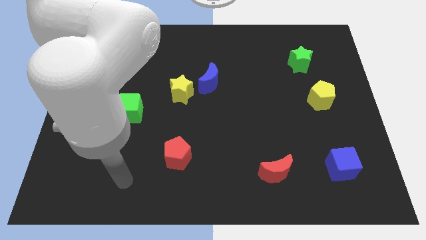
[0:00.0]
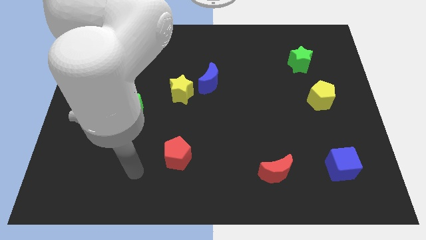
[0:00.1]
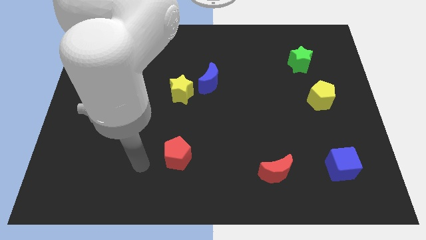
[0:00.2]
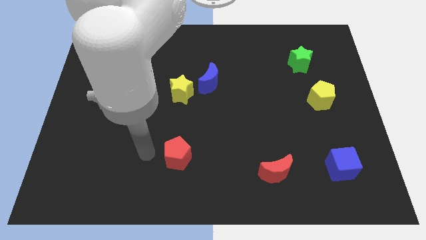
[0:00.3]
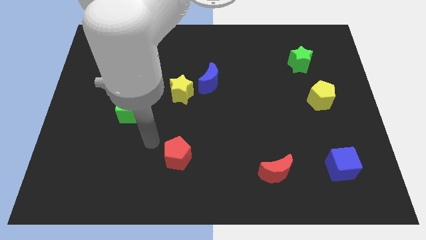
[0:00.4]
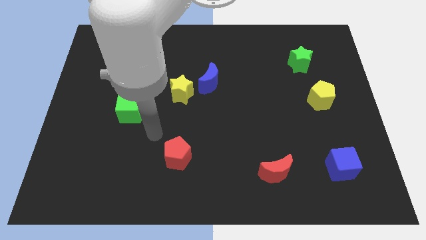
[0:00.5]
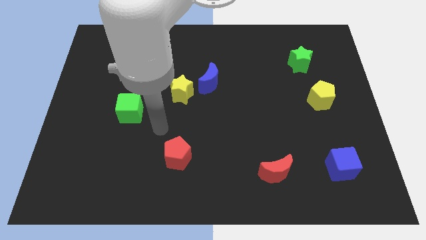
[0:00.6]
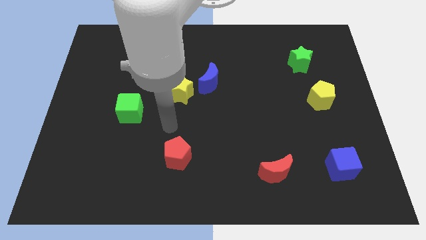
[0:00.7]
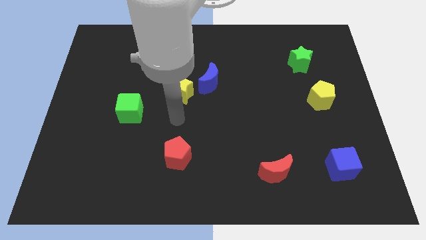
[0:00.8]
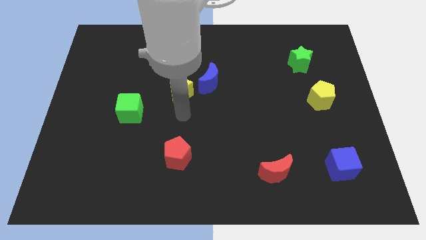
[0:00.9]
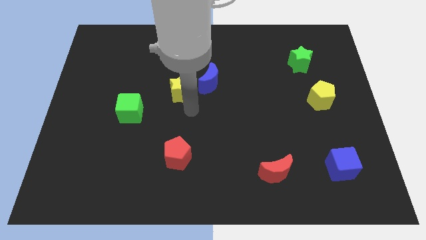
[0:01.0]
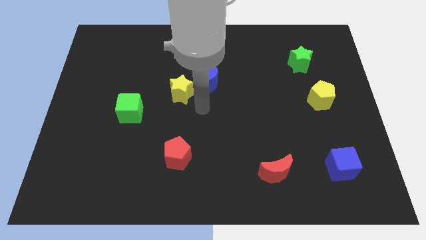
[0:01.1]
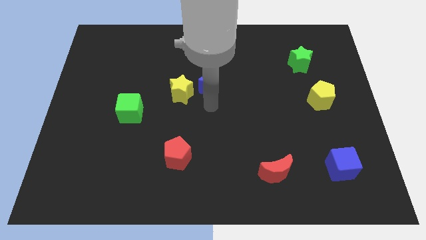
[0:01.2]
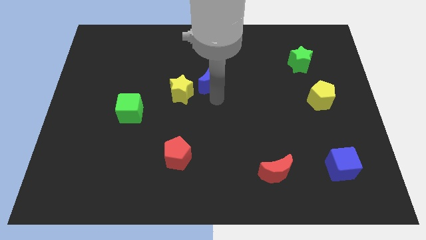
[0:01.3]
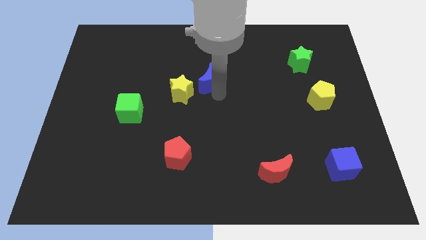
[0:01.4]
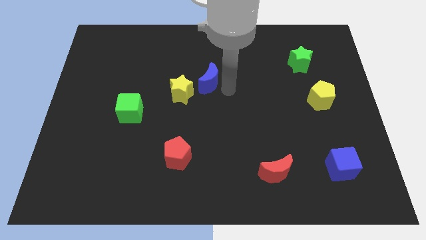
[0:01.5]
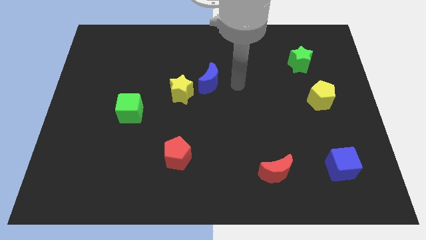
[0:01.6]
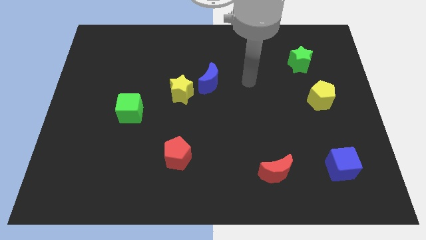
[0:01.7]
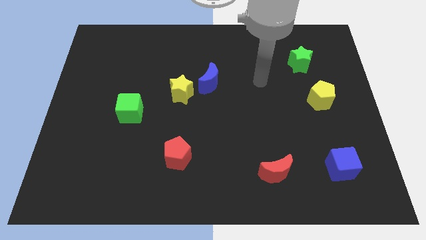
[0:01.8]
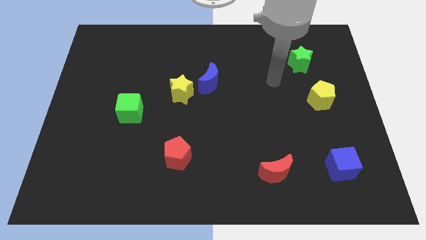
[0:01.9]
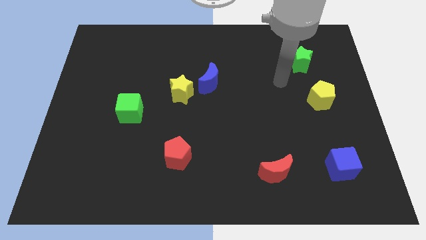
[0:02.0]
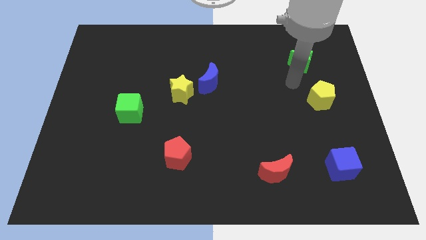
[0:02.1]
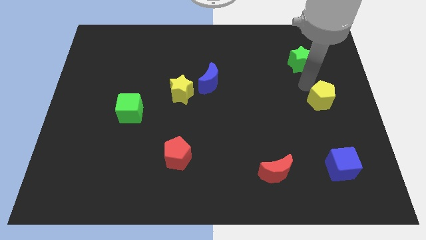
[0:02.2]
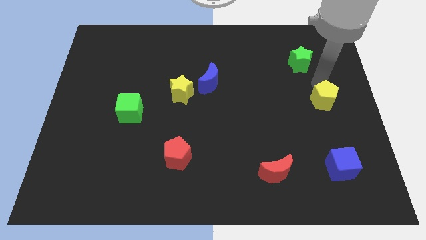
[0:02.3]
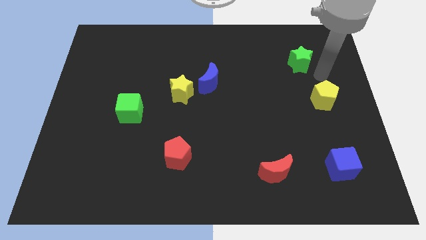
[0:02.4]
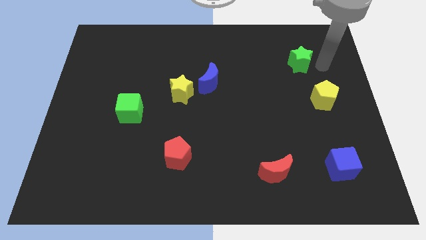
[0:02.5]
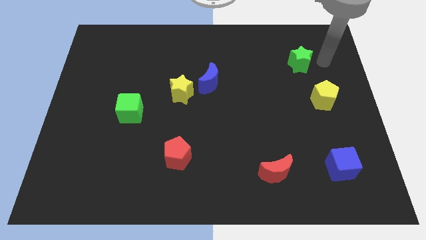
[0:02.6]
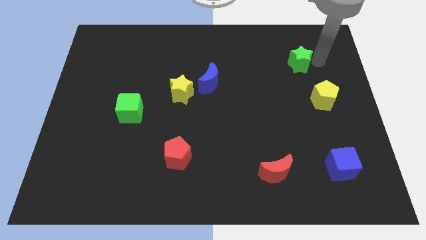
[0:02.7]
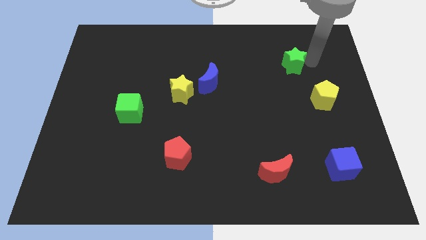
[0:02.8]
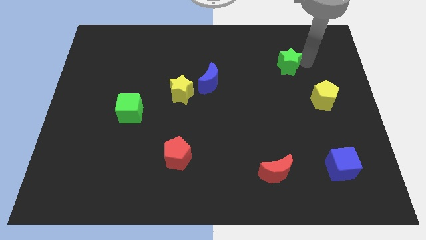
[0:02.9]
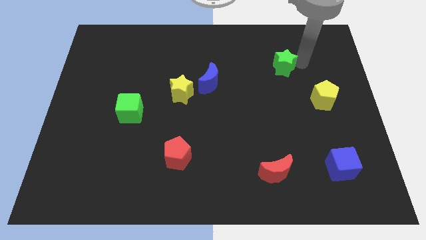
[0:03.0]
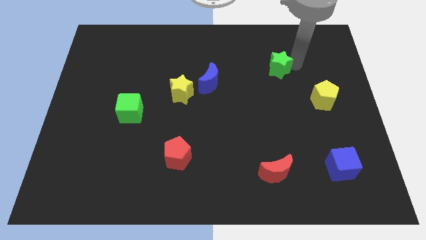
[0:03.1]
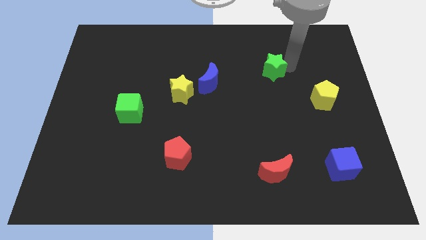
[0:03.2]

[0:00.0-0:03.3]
move the green star slightly left

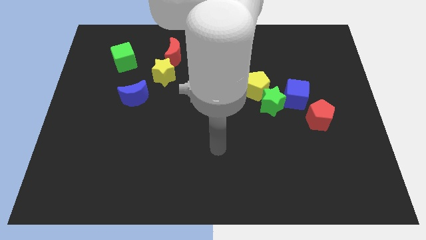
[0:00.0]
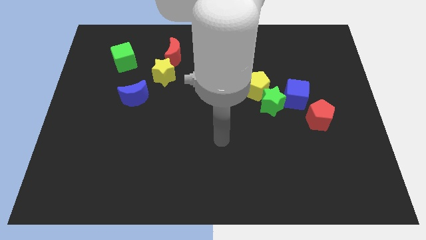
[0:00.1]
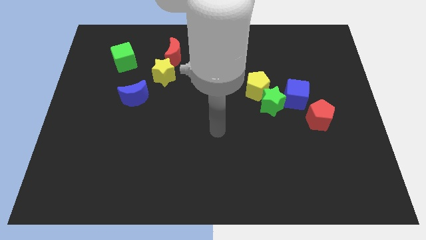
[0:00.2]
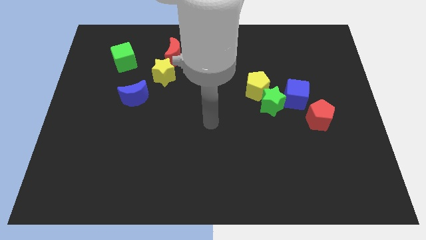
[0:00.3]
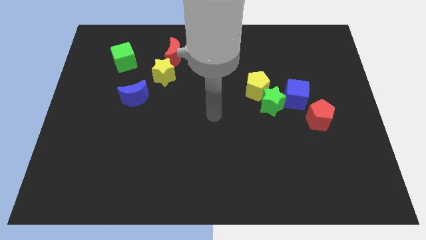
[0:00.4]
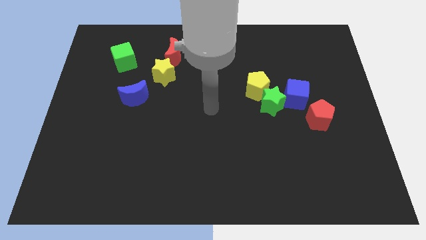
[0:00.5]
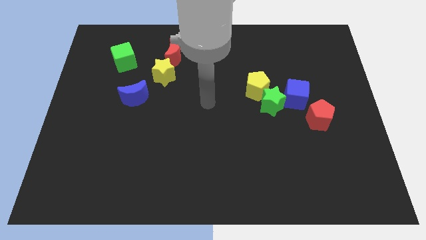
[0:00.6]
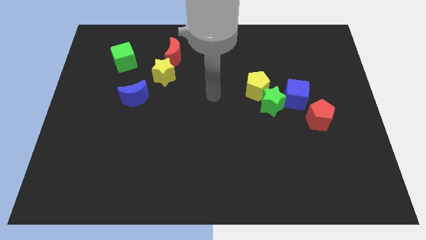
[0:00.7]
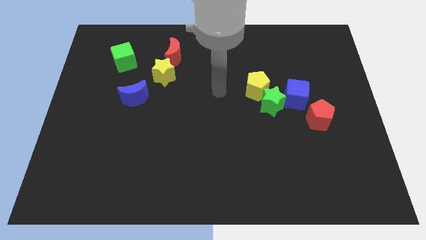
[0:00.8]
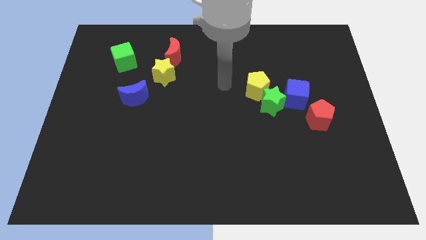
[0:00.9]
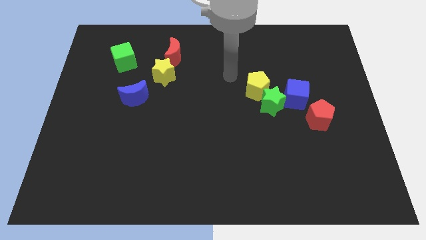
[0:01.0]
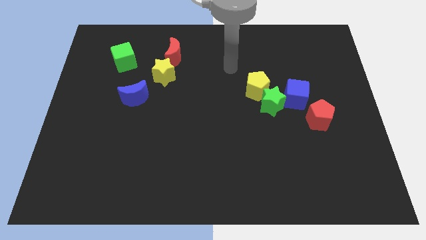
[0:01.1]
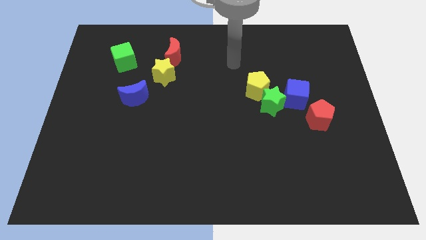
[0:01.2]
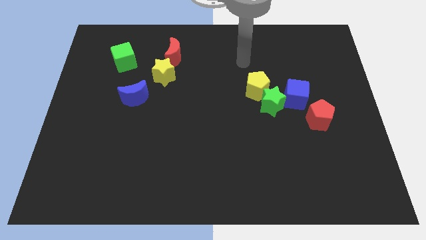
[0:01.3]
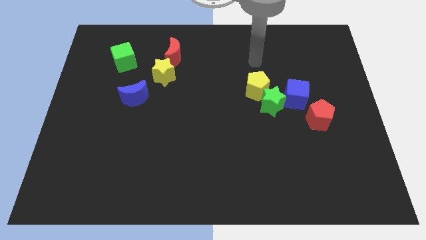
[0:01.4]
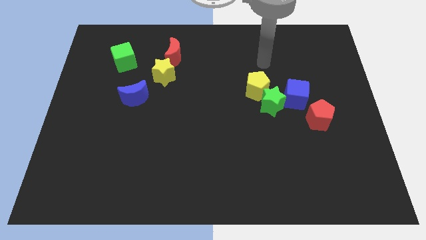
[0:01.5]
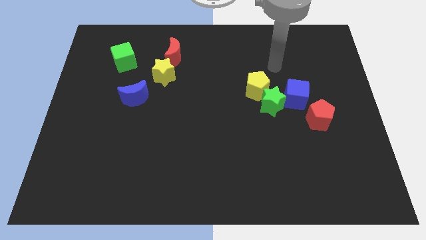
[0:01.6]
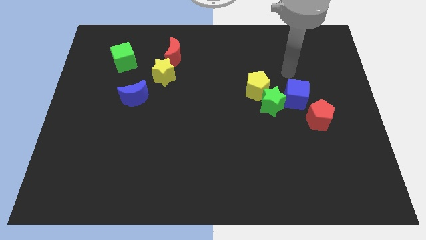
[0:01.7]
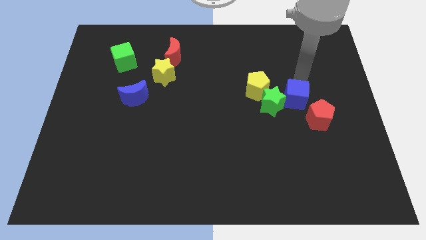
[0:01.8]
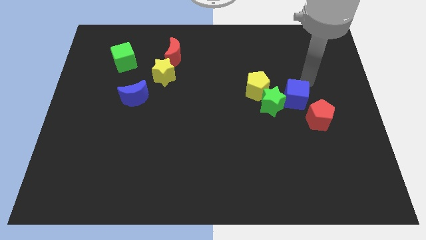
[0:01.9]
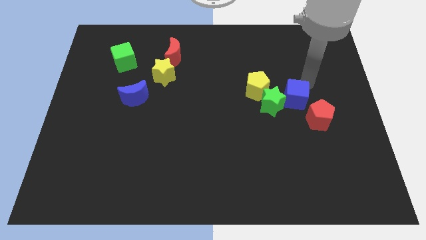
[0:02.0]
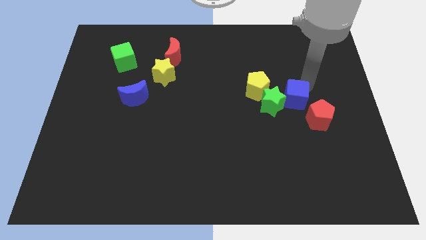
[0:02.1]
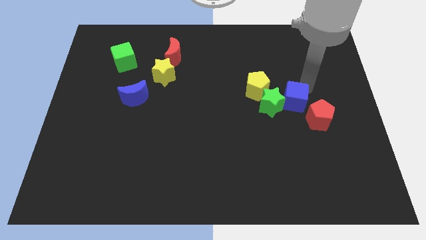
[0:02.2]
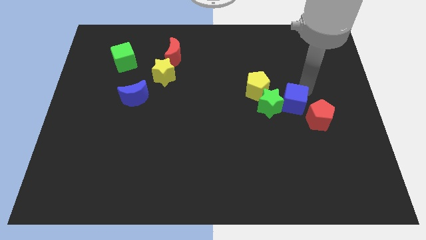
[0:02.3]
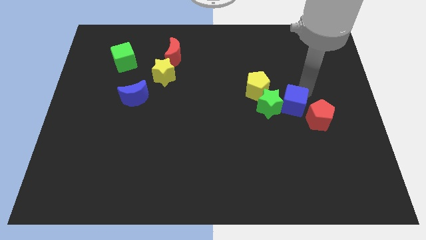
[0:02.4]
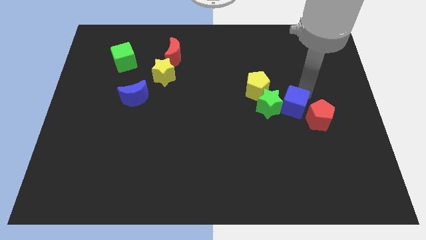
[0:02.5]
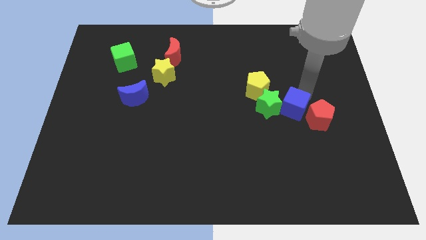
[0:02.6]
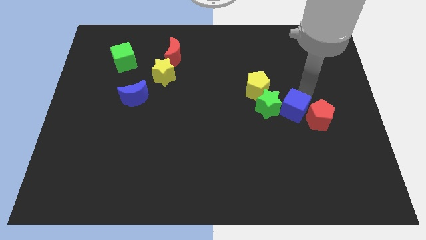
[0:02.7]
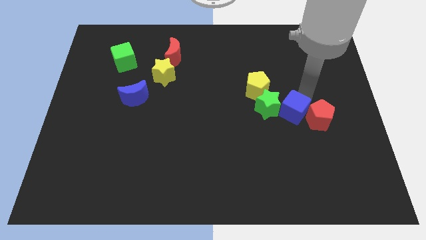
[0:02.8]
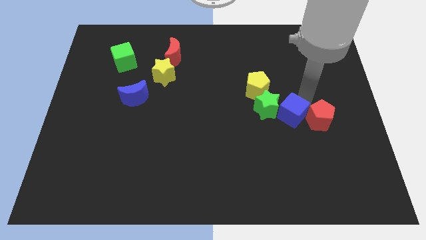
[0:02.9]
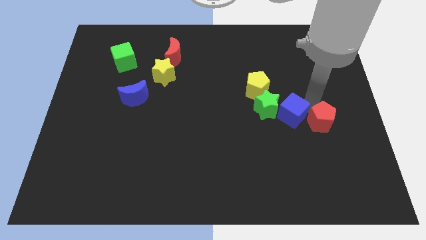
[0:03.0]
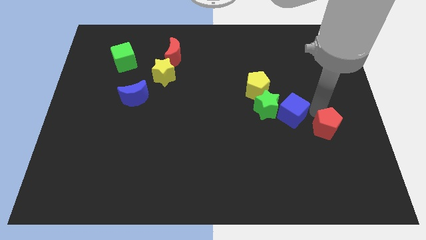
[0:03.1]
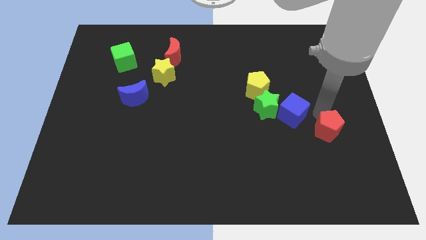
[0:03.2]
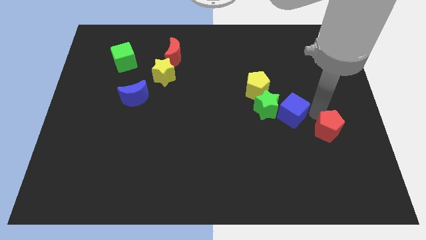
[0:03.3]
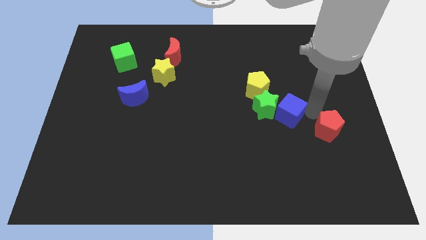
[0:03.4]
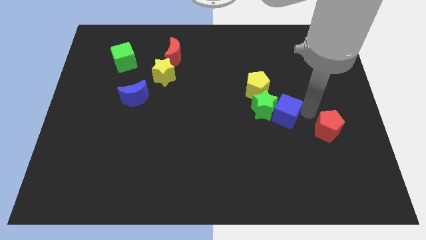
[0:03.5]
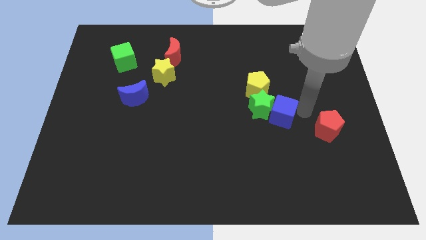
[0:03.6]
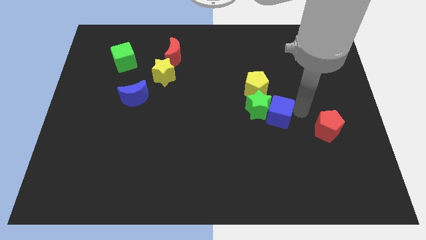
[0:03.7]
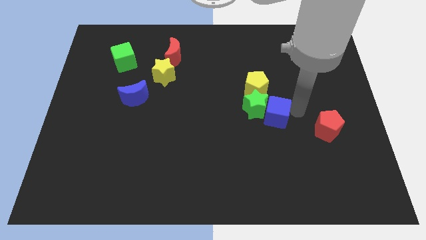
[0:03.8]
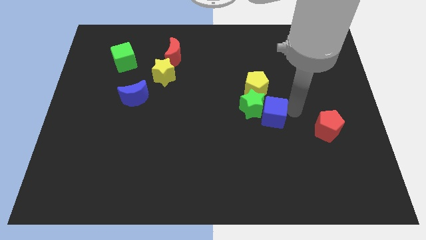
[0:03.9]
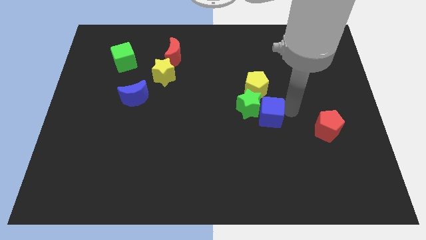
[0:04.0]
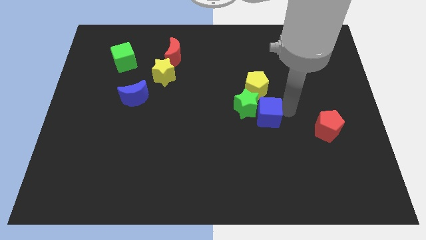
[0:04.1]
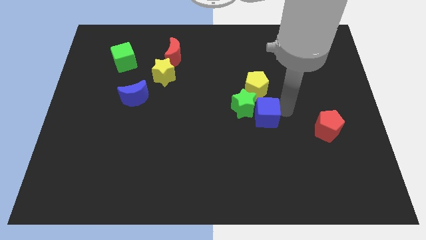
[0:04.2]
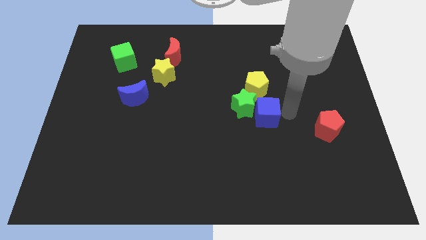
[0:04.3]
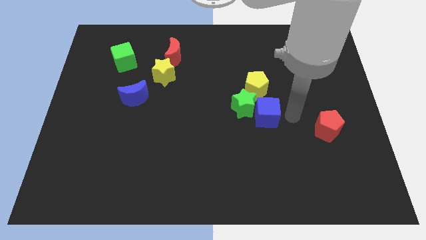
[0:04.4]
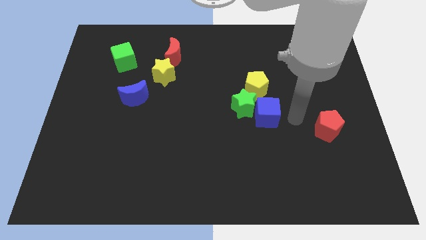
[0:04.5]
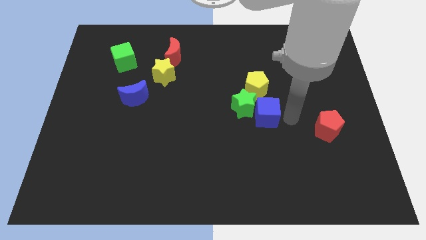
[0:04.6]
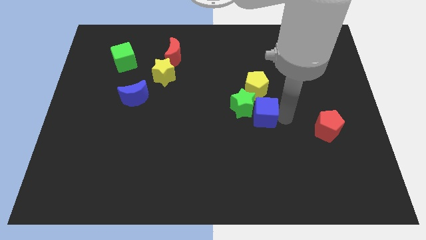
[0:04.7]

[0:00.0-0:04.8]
slightly move the blue cube left

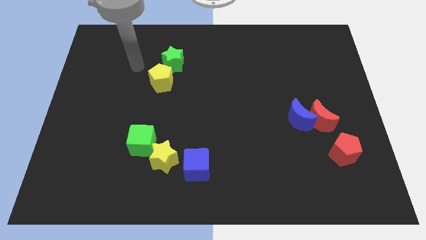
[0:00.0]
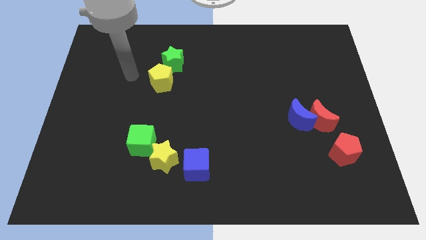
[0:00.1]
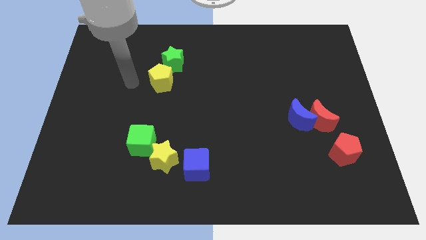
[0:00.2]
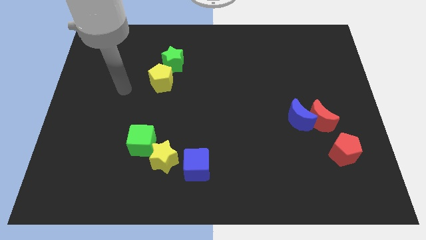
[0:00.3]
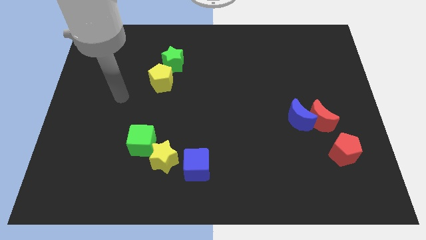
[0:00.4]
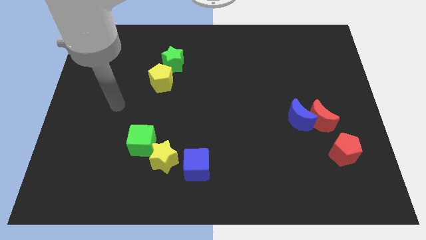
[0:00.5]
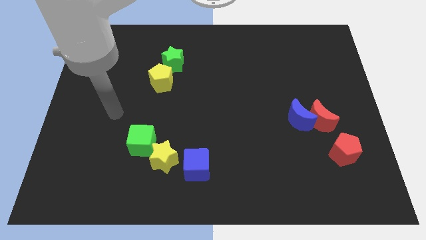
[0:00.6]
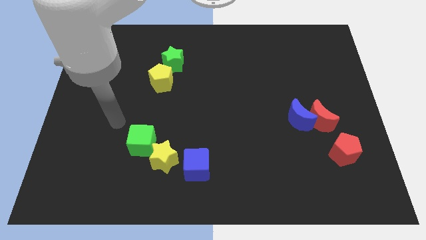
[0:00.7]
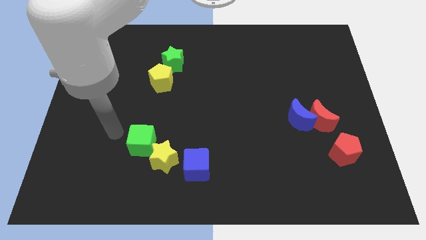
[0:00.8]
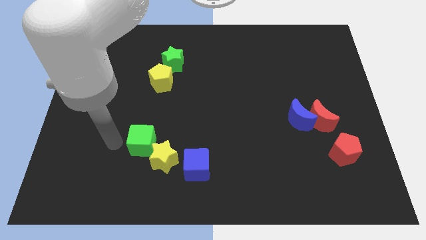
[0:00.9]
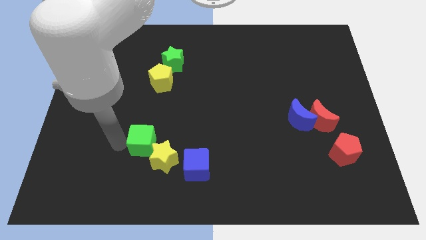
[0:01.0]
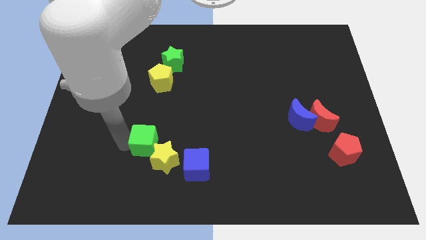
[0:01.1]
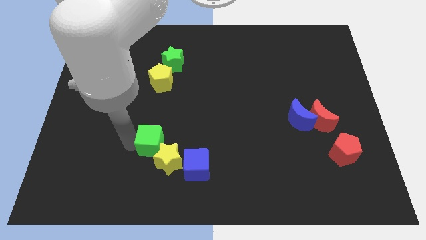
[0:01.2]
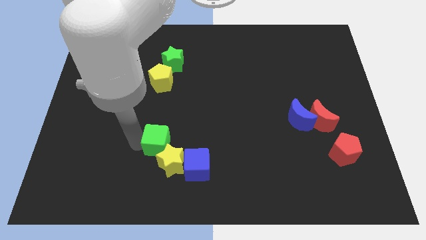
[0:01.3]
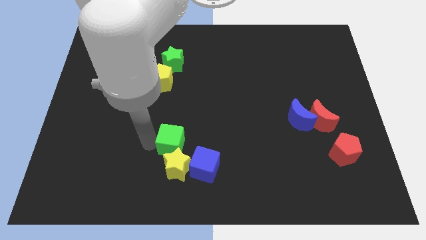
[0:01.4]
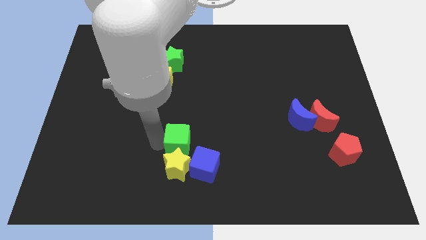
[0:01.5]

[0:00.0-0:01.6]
move the green cube right somewhat
